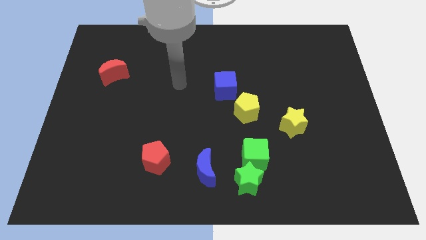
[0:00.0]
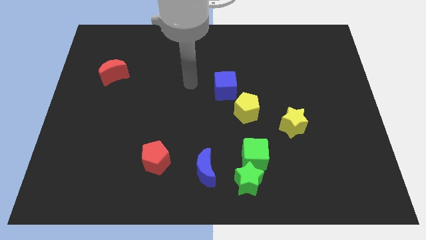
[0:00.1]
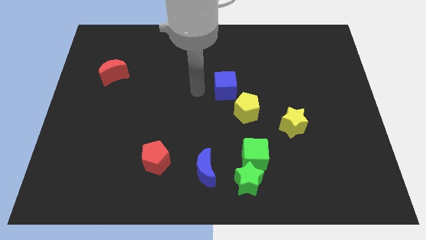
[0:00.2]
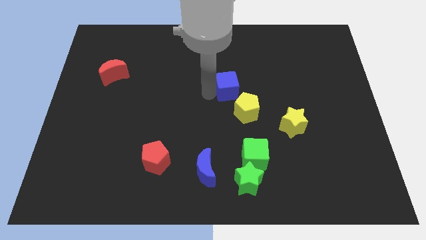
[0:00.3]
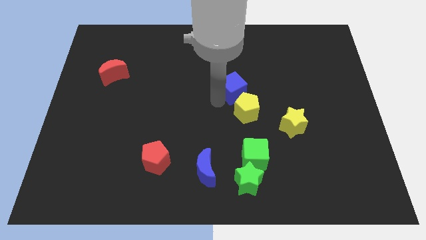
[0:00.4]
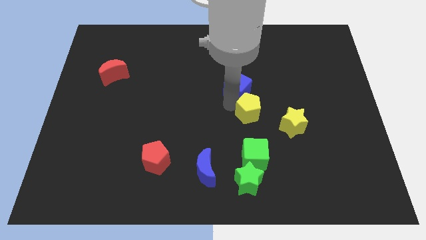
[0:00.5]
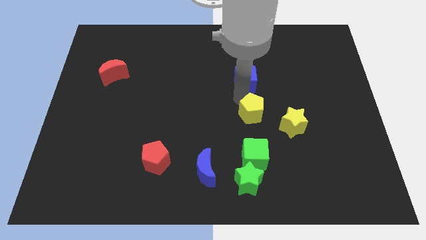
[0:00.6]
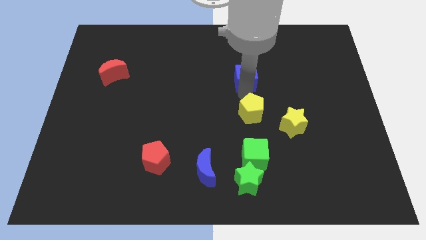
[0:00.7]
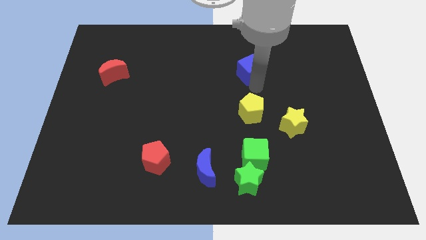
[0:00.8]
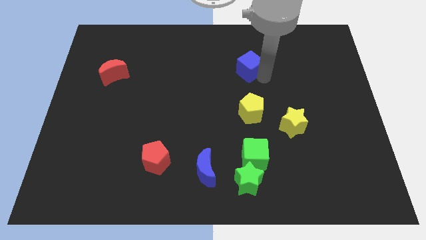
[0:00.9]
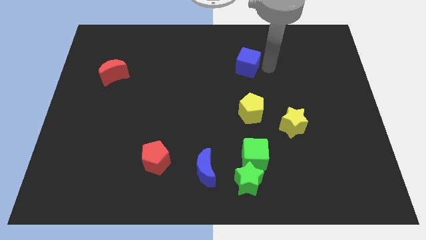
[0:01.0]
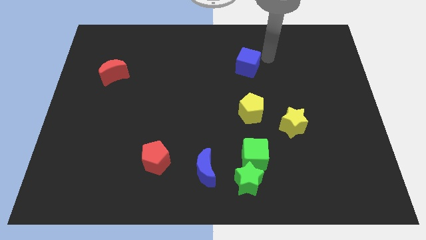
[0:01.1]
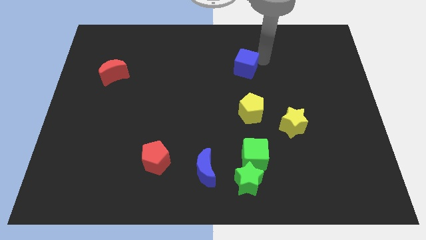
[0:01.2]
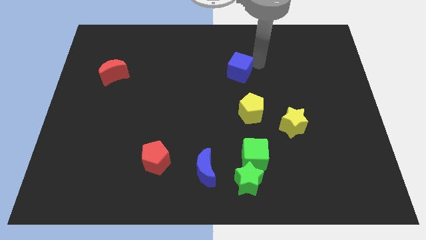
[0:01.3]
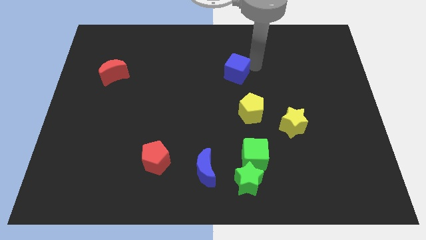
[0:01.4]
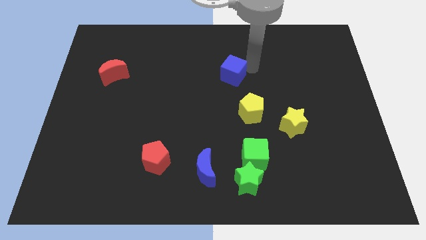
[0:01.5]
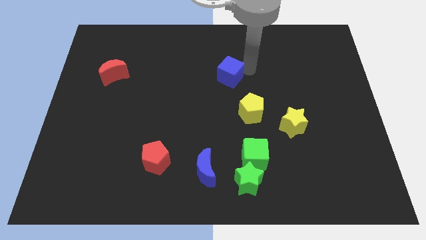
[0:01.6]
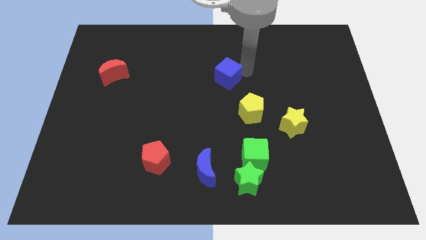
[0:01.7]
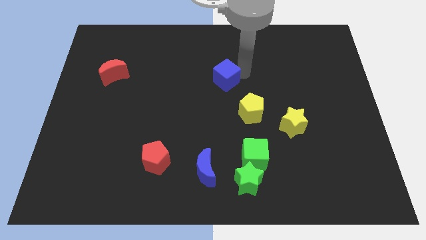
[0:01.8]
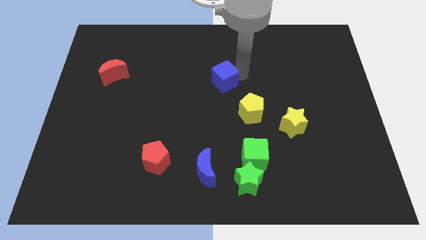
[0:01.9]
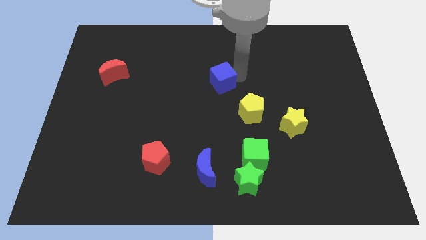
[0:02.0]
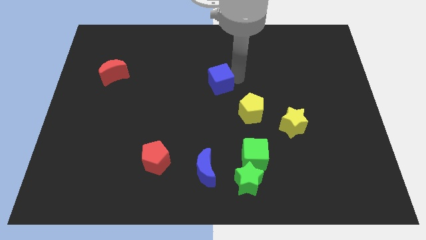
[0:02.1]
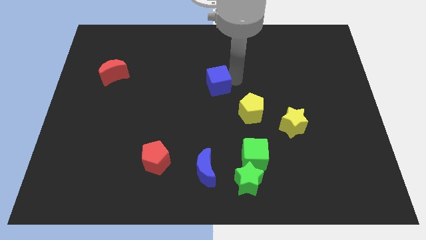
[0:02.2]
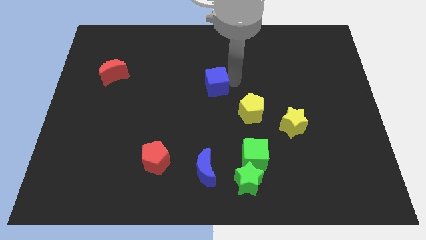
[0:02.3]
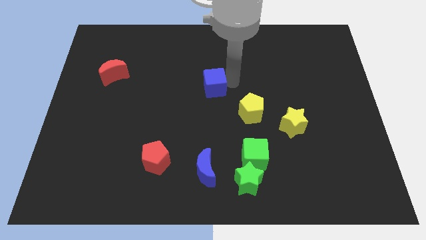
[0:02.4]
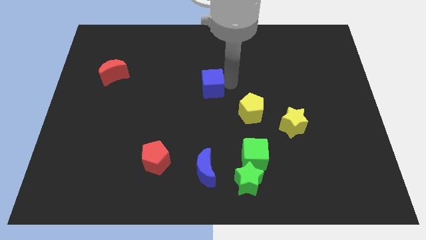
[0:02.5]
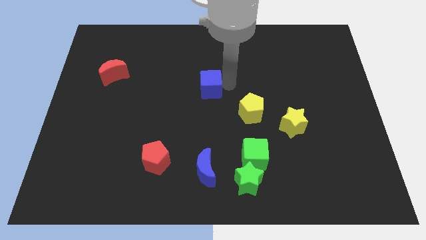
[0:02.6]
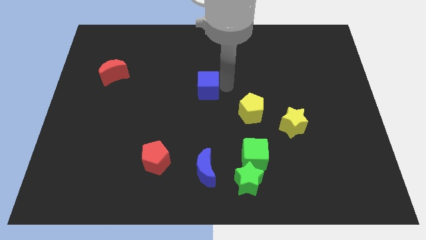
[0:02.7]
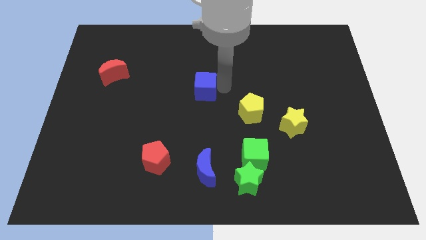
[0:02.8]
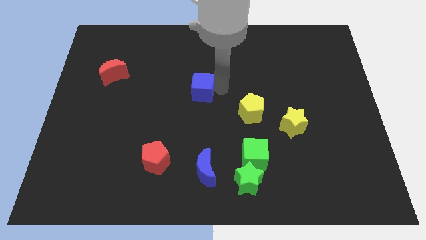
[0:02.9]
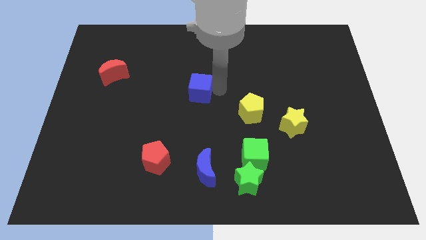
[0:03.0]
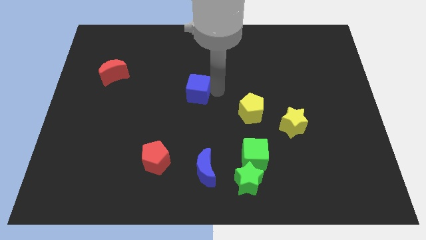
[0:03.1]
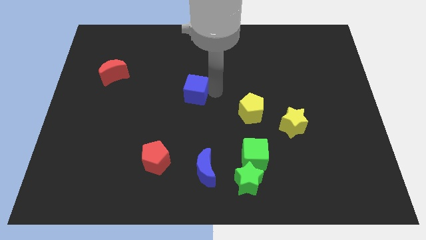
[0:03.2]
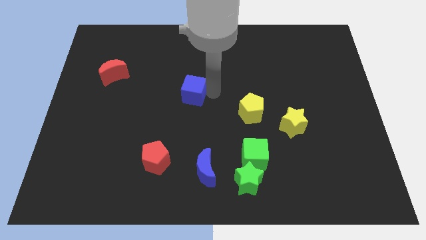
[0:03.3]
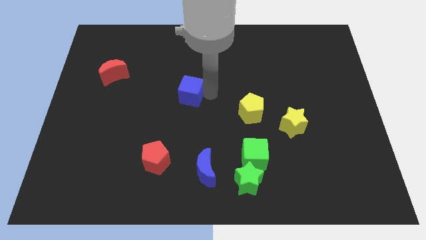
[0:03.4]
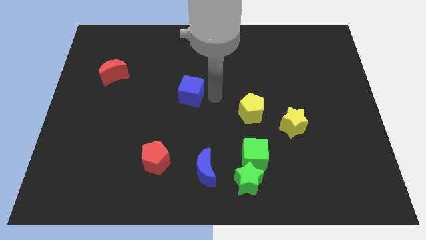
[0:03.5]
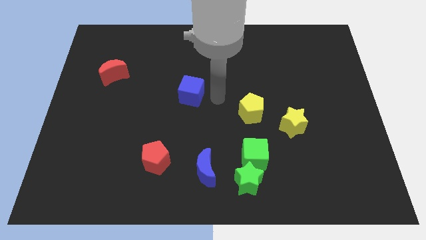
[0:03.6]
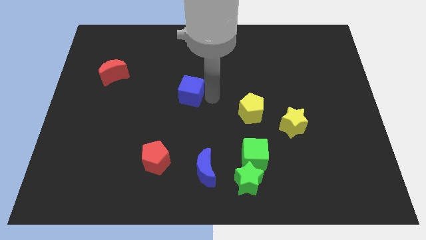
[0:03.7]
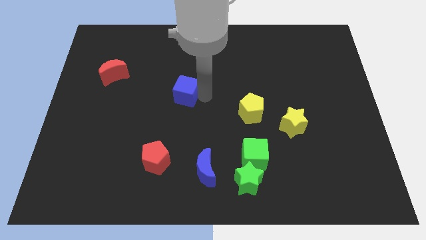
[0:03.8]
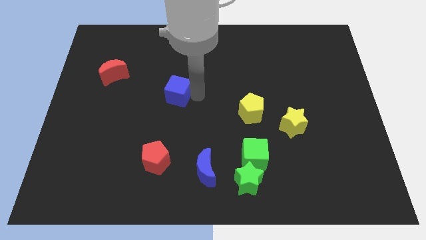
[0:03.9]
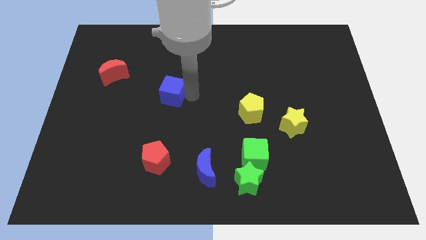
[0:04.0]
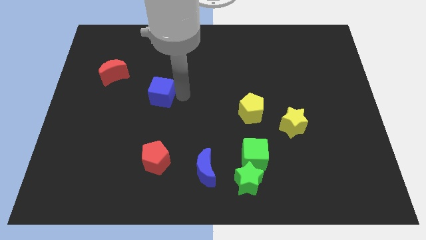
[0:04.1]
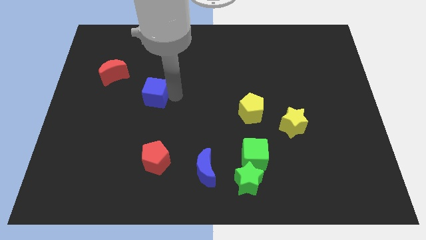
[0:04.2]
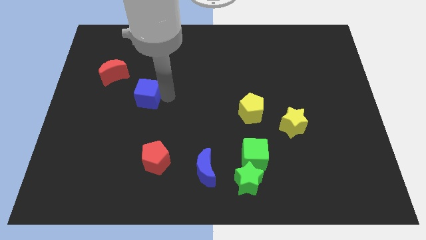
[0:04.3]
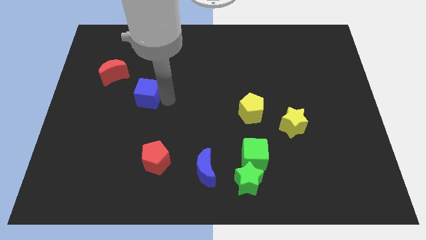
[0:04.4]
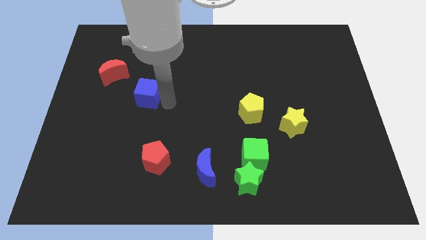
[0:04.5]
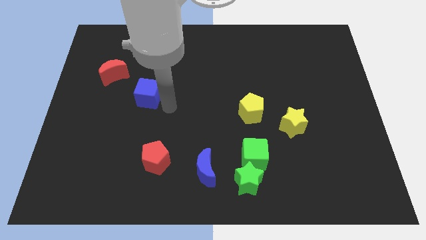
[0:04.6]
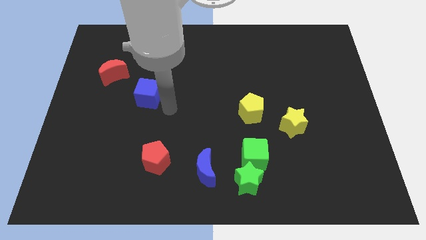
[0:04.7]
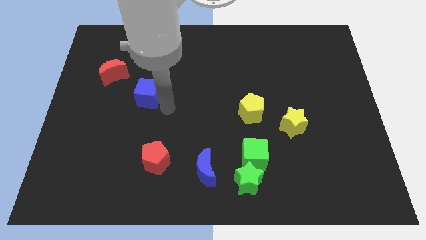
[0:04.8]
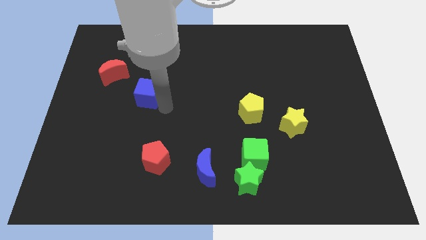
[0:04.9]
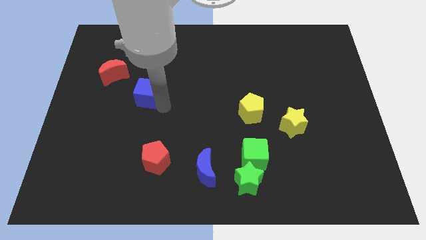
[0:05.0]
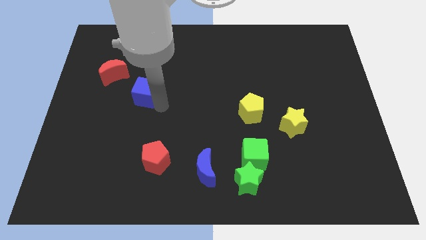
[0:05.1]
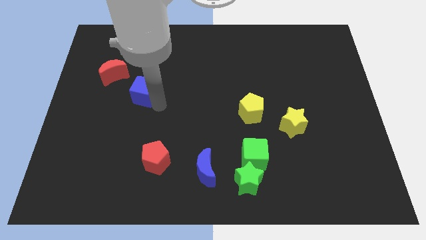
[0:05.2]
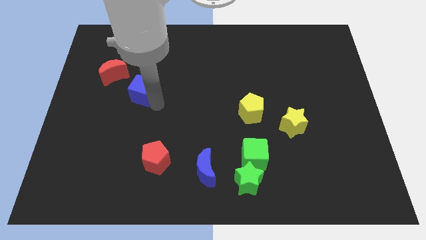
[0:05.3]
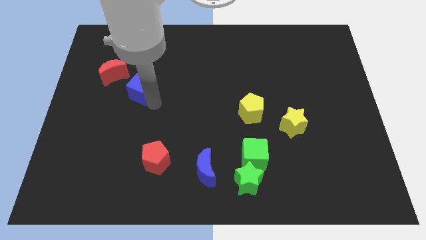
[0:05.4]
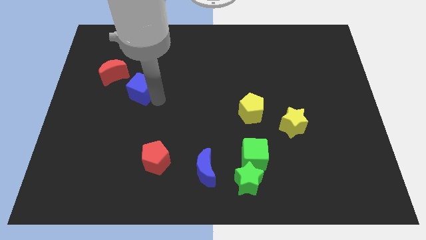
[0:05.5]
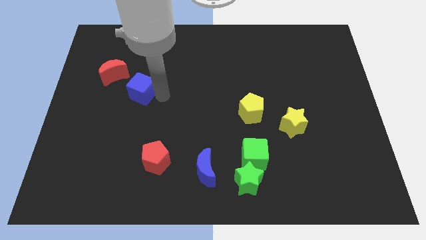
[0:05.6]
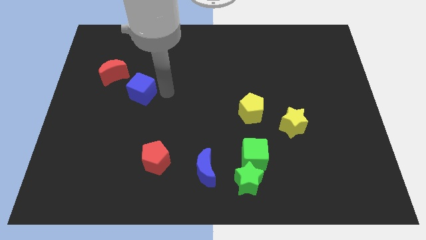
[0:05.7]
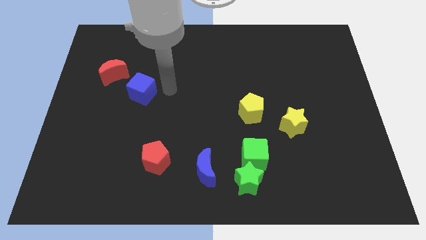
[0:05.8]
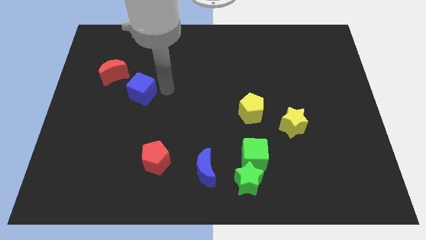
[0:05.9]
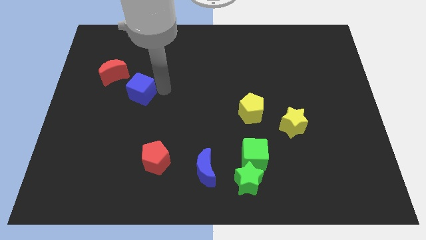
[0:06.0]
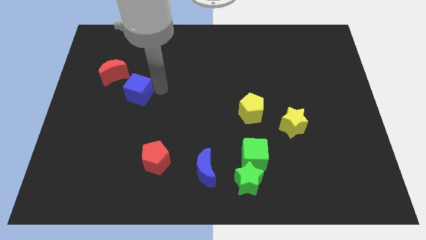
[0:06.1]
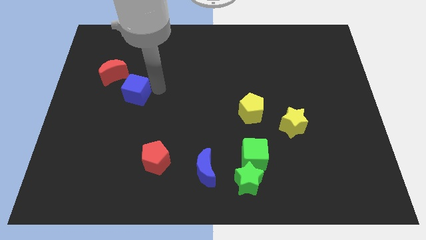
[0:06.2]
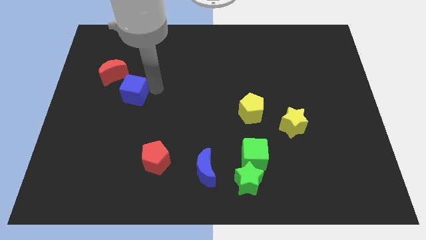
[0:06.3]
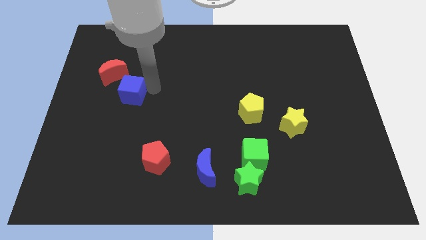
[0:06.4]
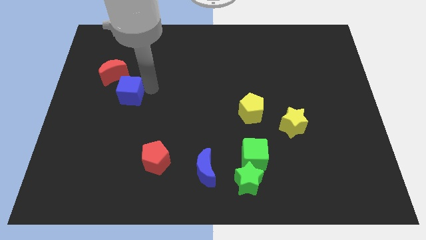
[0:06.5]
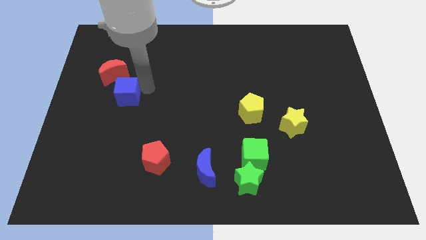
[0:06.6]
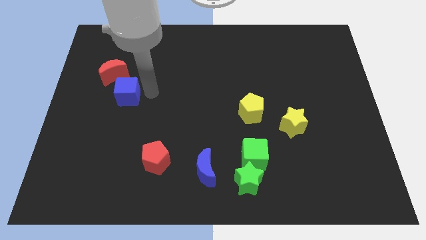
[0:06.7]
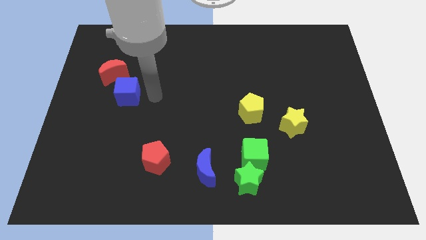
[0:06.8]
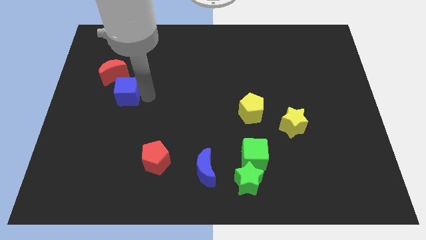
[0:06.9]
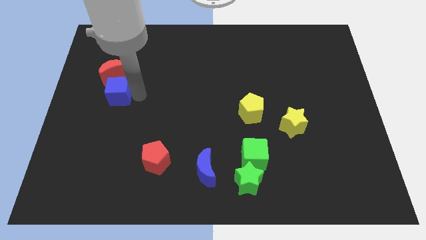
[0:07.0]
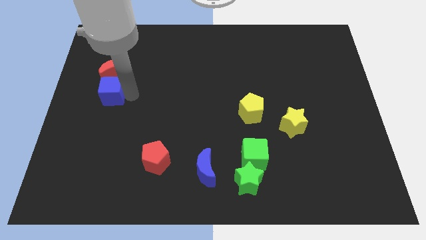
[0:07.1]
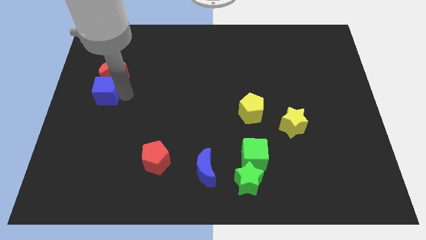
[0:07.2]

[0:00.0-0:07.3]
slide the blue cube to the left side of the board
